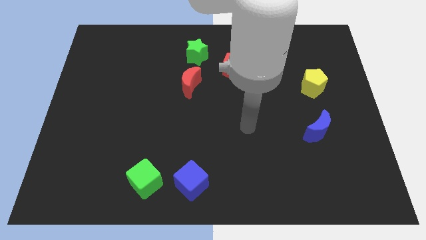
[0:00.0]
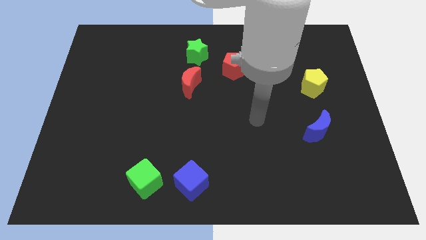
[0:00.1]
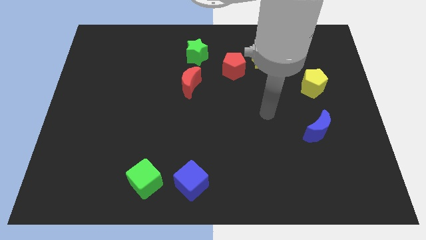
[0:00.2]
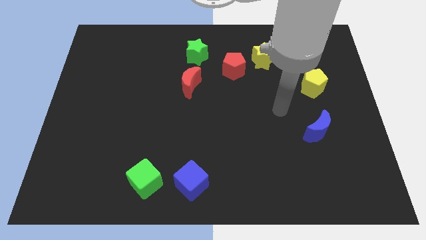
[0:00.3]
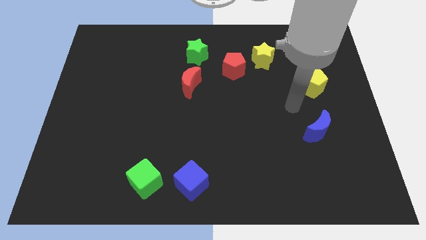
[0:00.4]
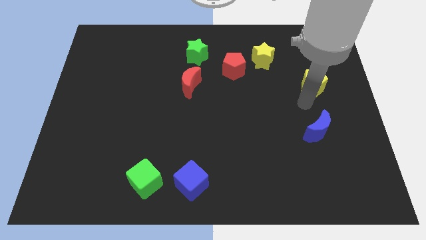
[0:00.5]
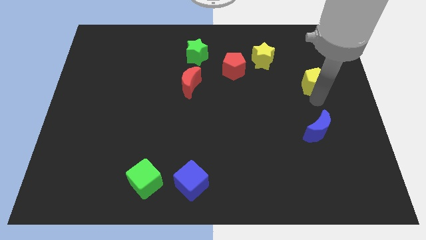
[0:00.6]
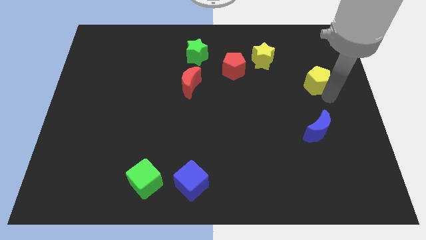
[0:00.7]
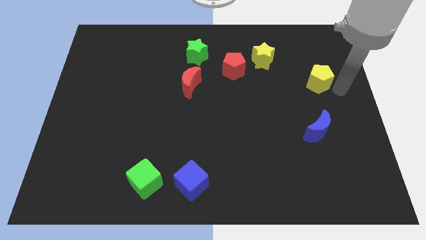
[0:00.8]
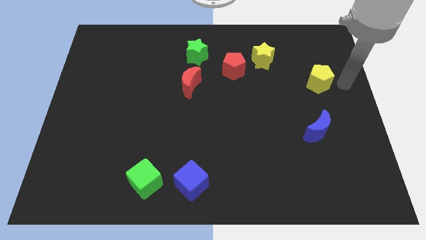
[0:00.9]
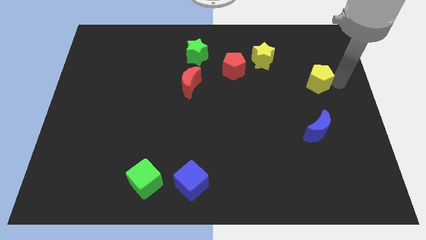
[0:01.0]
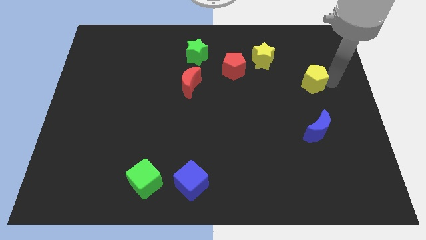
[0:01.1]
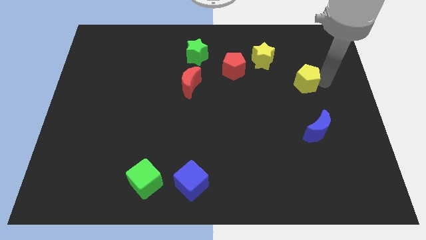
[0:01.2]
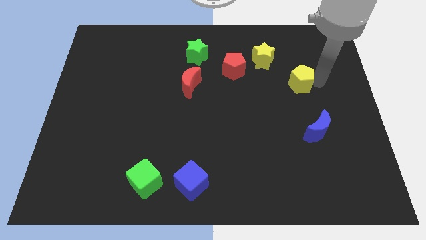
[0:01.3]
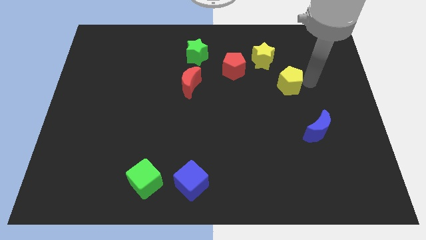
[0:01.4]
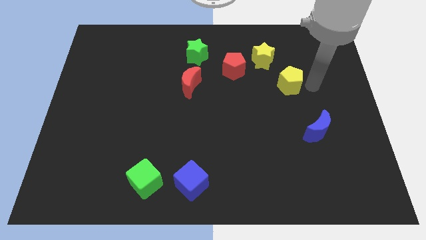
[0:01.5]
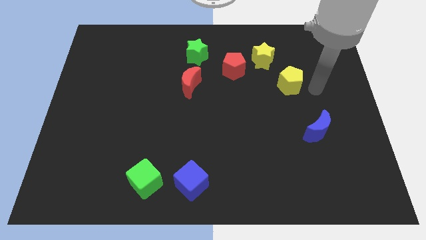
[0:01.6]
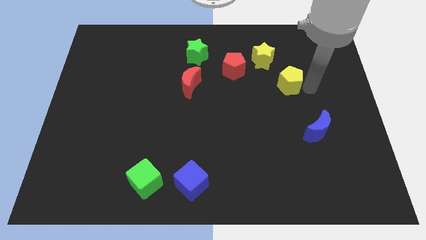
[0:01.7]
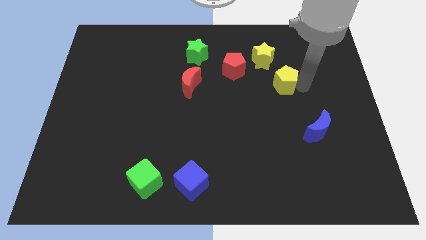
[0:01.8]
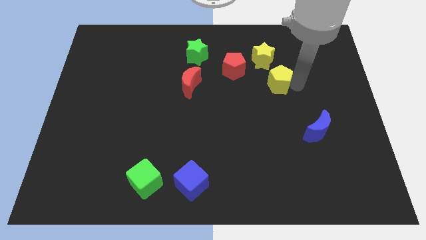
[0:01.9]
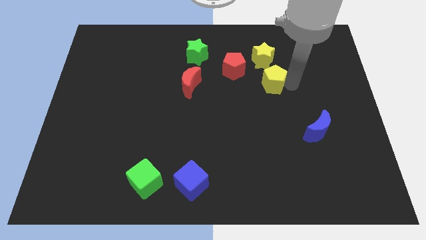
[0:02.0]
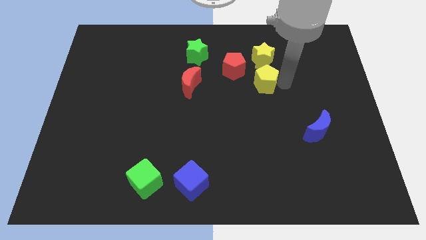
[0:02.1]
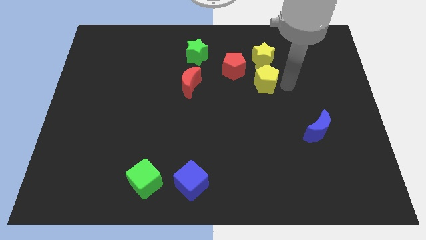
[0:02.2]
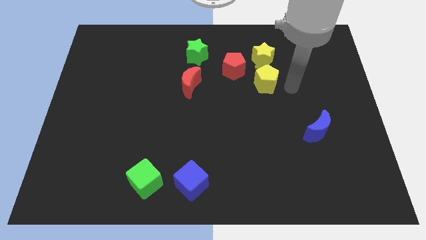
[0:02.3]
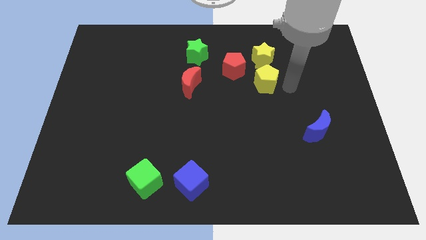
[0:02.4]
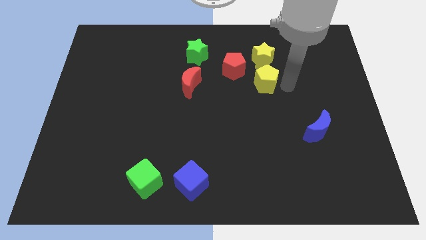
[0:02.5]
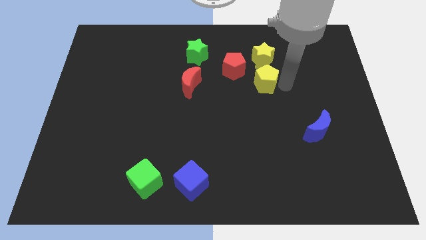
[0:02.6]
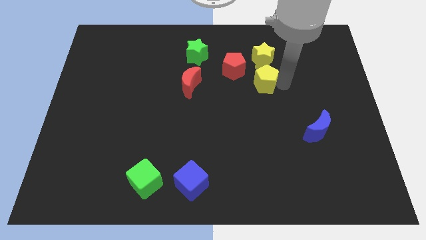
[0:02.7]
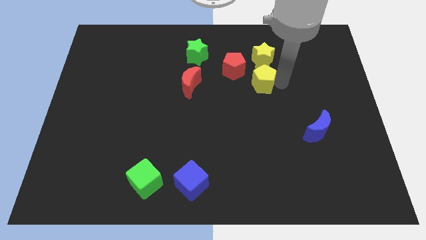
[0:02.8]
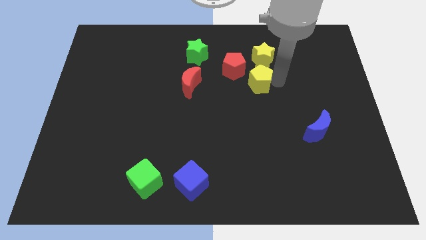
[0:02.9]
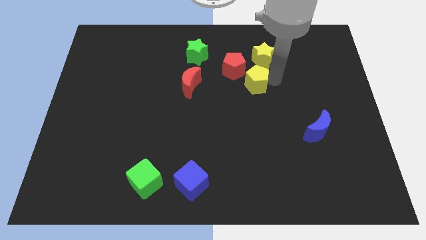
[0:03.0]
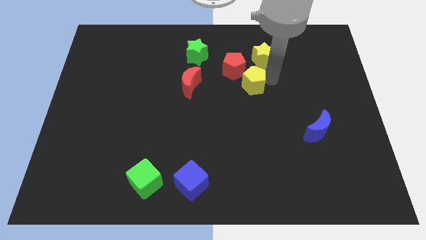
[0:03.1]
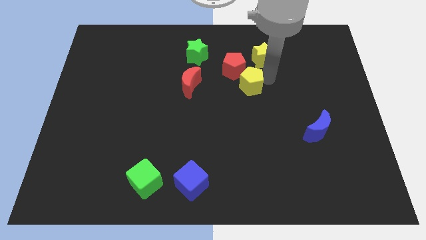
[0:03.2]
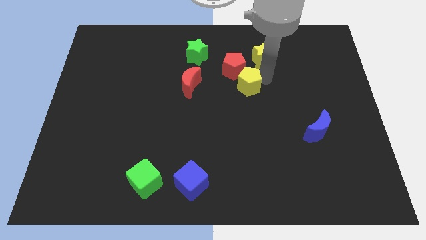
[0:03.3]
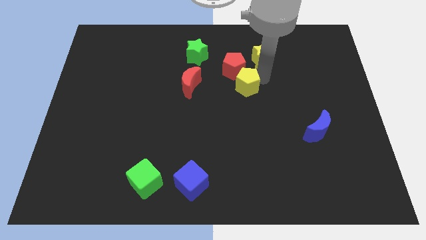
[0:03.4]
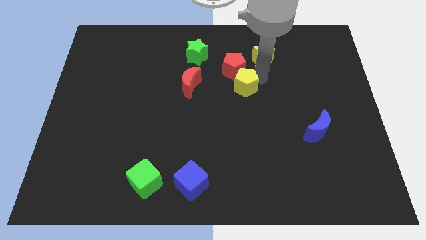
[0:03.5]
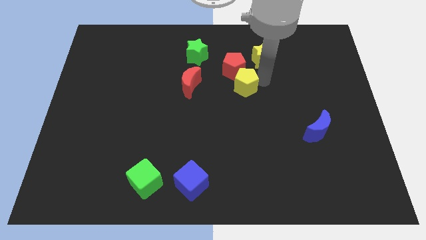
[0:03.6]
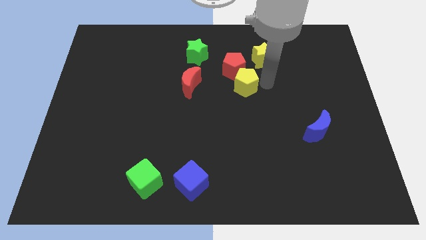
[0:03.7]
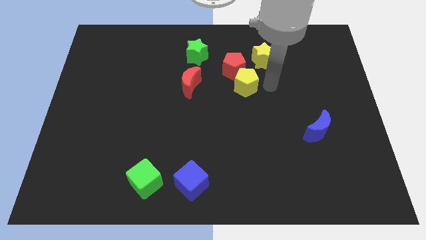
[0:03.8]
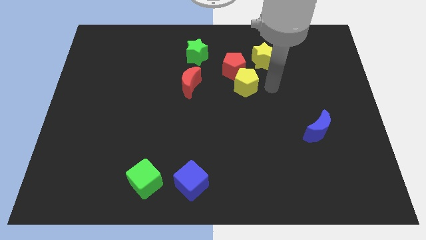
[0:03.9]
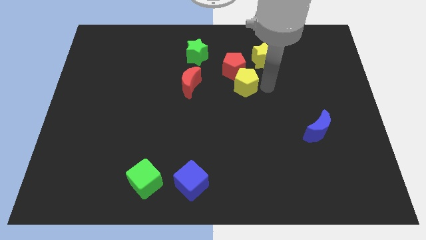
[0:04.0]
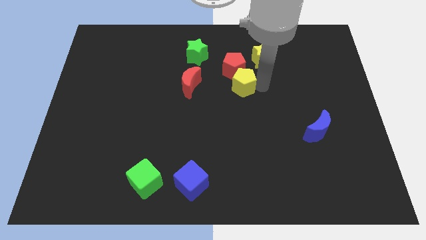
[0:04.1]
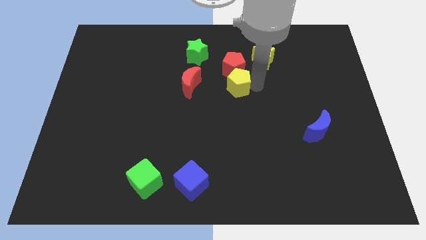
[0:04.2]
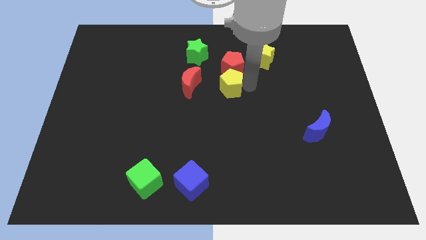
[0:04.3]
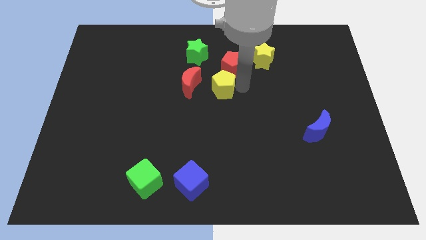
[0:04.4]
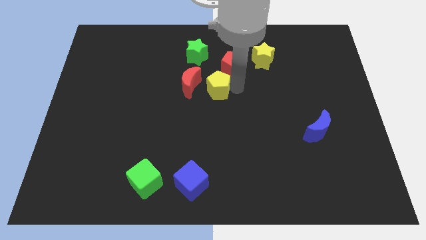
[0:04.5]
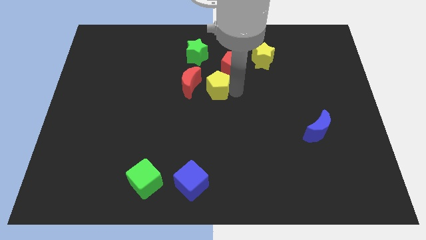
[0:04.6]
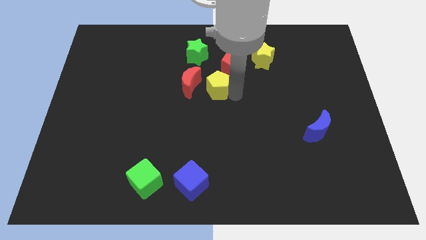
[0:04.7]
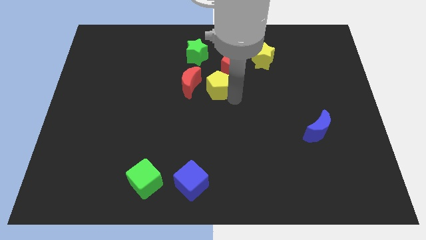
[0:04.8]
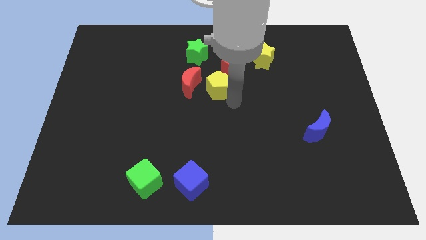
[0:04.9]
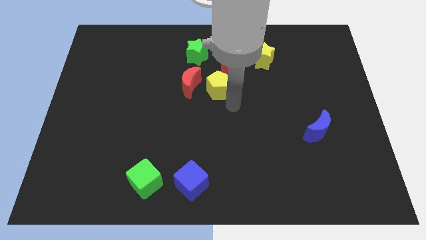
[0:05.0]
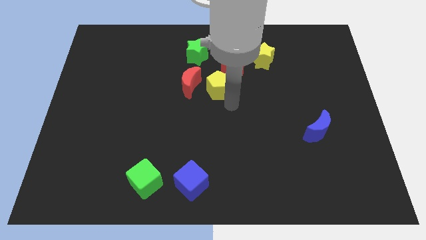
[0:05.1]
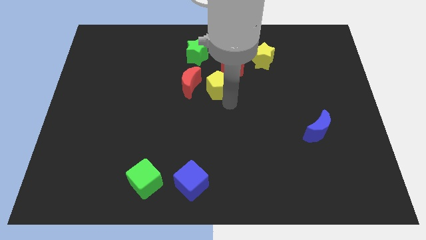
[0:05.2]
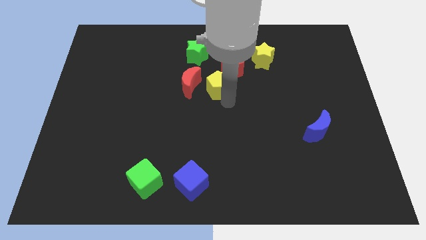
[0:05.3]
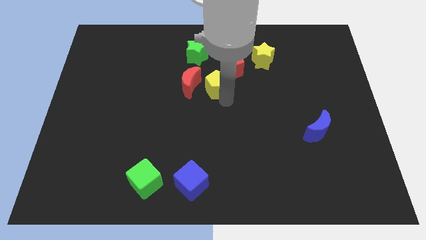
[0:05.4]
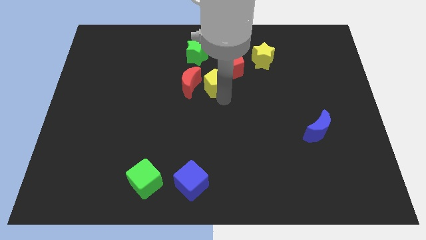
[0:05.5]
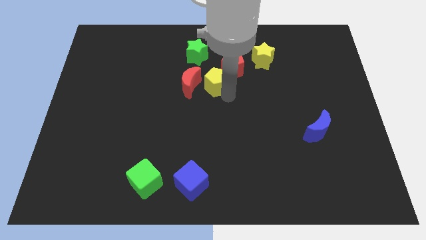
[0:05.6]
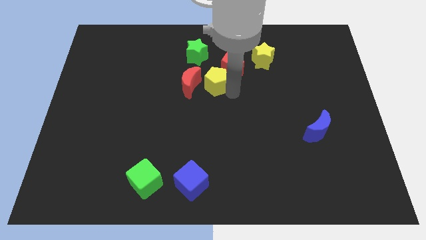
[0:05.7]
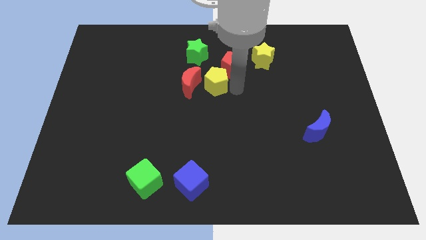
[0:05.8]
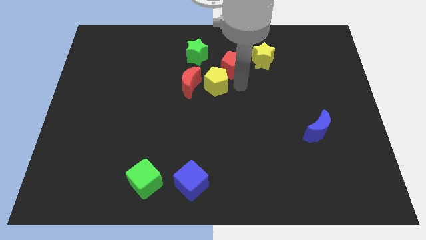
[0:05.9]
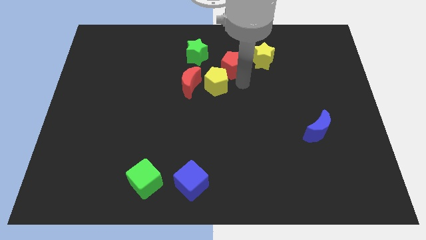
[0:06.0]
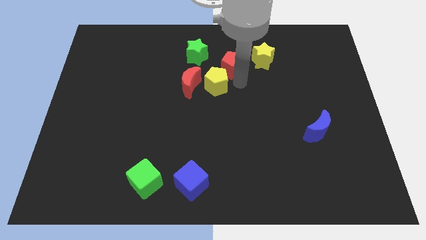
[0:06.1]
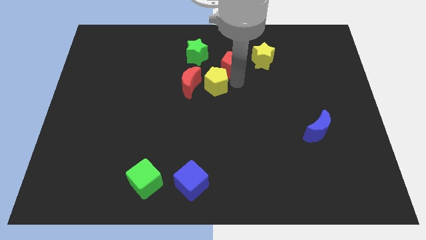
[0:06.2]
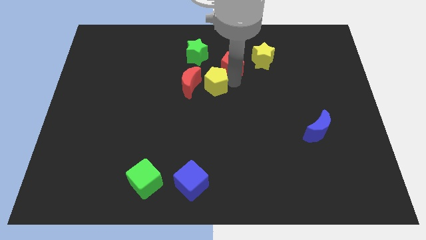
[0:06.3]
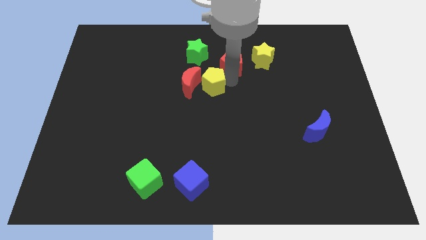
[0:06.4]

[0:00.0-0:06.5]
put the yellow pentagon to the red moon

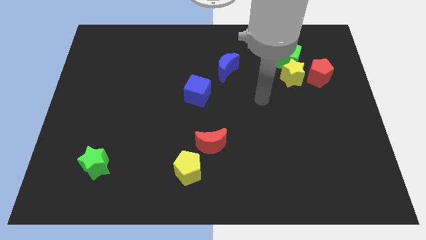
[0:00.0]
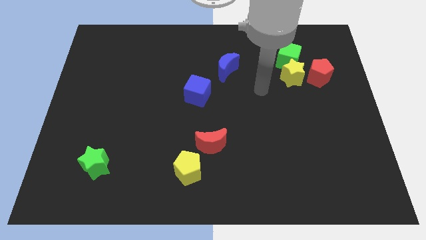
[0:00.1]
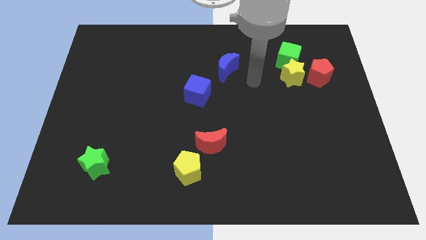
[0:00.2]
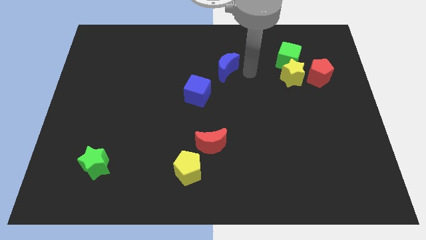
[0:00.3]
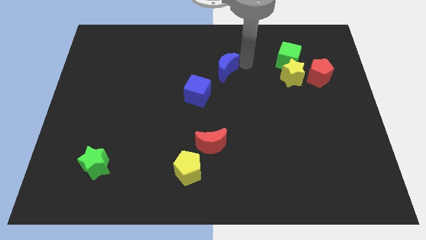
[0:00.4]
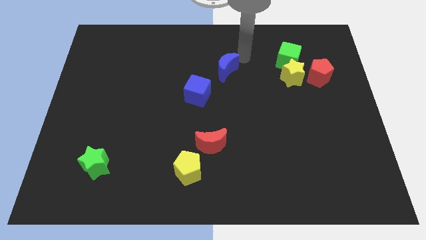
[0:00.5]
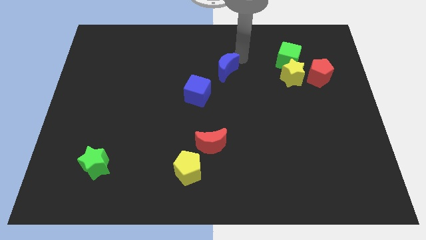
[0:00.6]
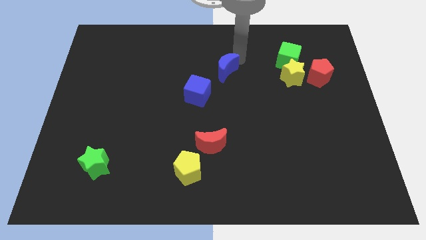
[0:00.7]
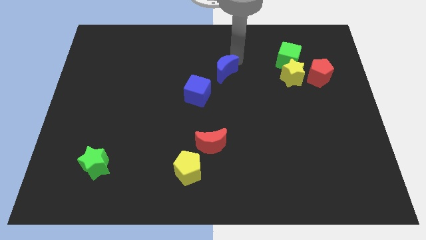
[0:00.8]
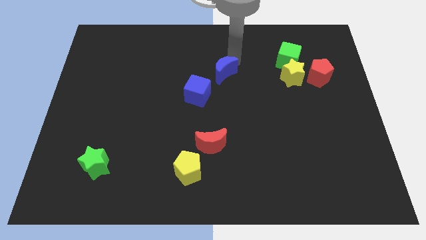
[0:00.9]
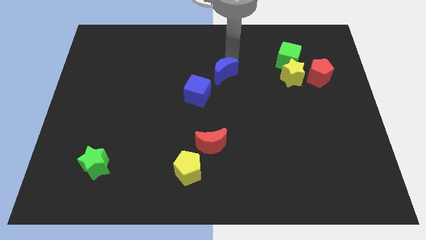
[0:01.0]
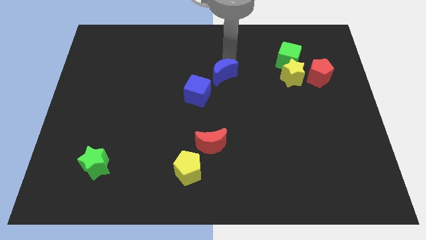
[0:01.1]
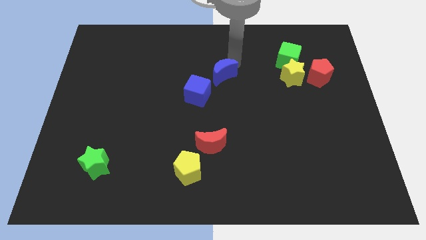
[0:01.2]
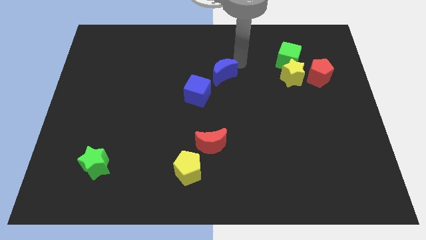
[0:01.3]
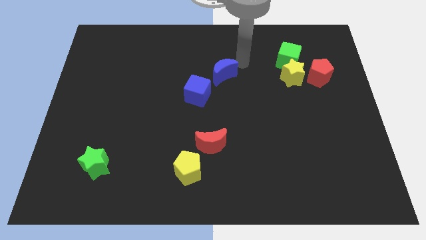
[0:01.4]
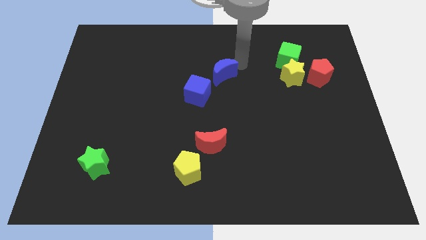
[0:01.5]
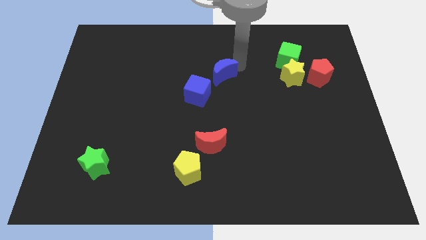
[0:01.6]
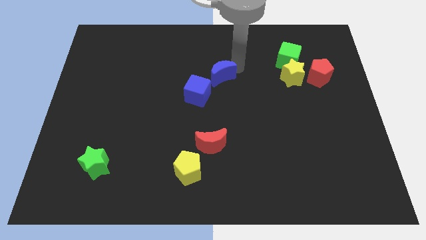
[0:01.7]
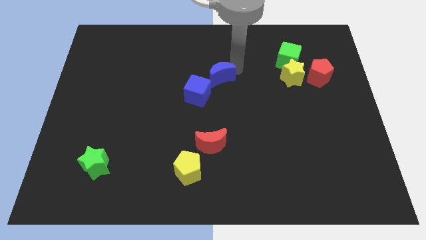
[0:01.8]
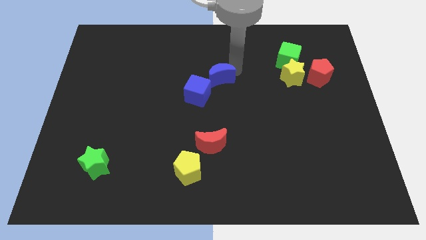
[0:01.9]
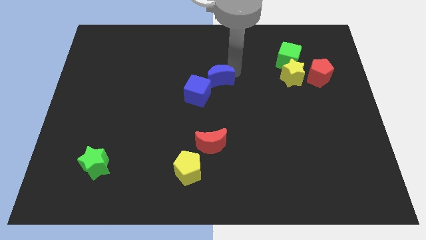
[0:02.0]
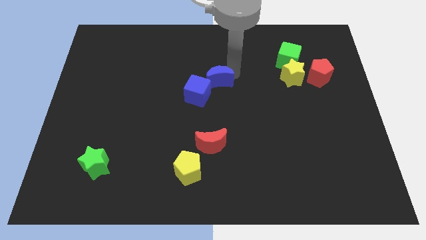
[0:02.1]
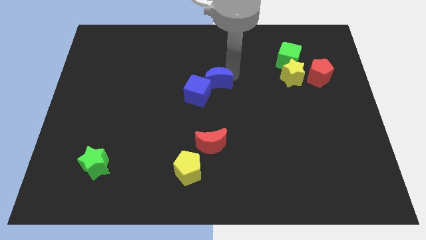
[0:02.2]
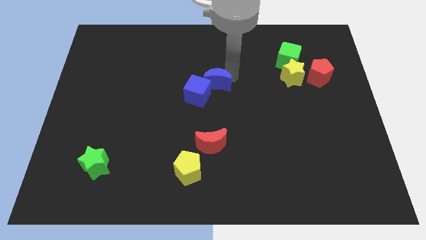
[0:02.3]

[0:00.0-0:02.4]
push the blue moon next to the blue cube
